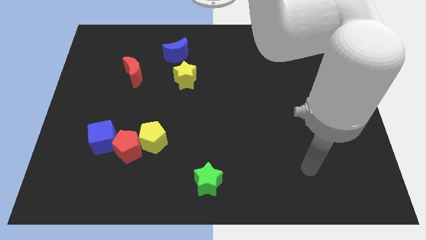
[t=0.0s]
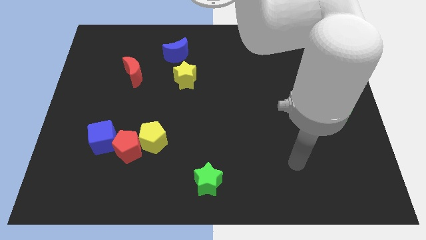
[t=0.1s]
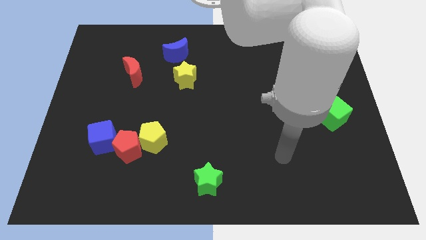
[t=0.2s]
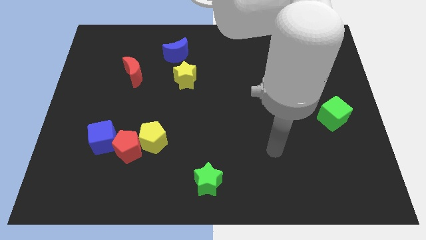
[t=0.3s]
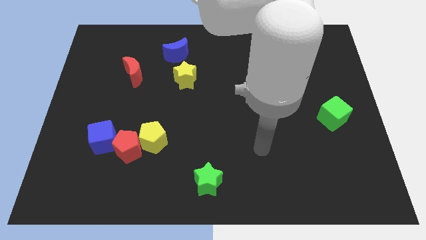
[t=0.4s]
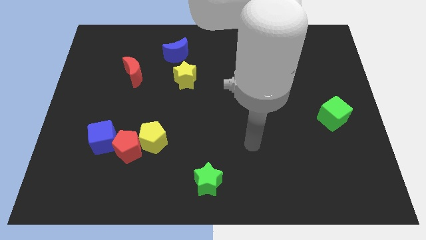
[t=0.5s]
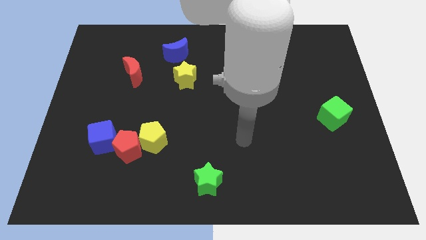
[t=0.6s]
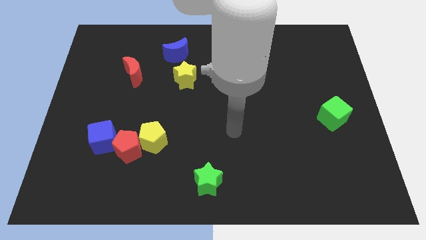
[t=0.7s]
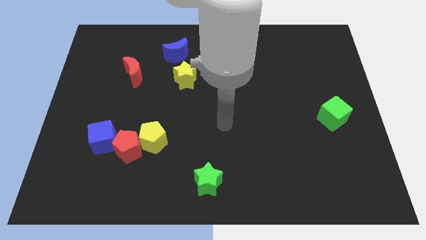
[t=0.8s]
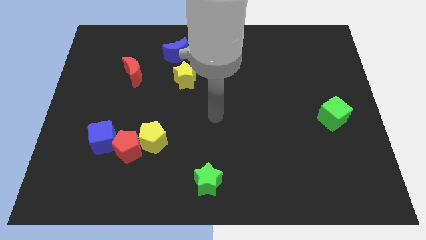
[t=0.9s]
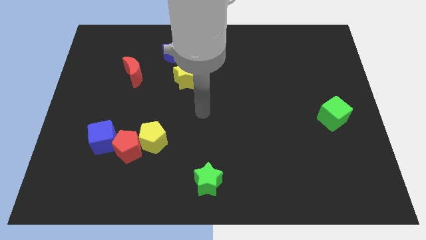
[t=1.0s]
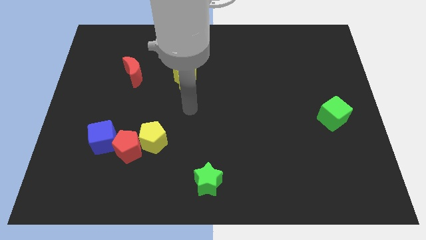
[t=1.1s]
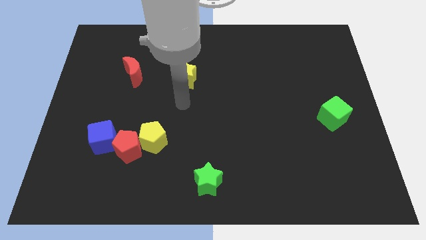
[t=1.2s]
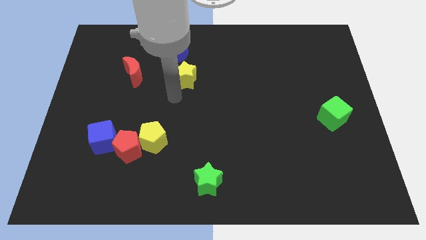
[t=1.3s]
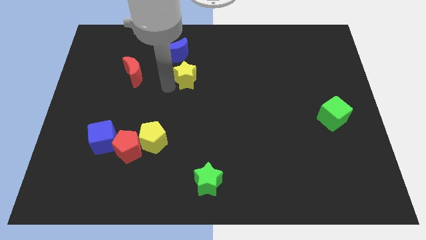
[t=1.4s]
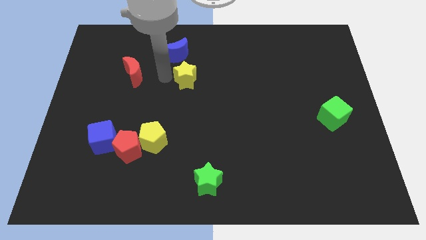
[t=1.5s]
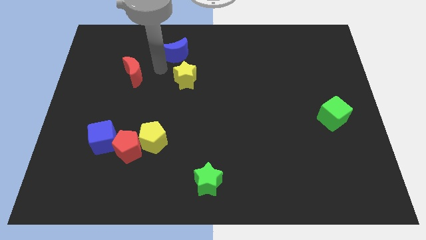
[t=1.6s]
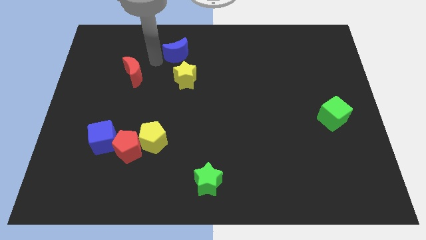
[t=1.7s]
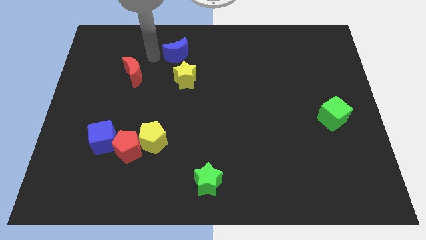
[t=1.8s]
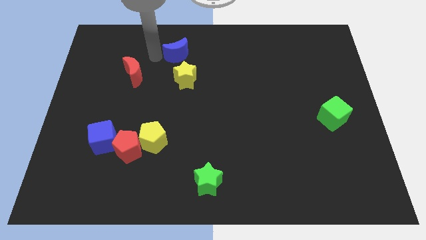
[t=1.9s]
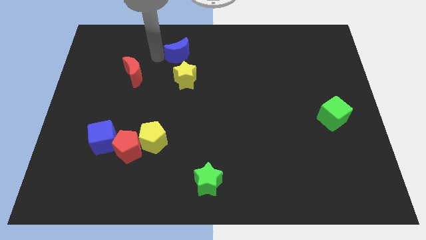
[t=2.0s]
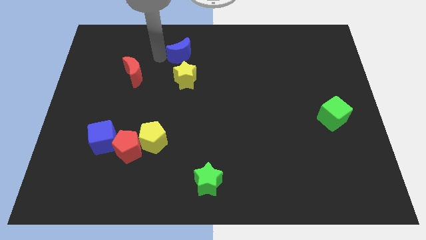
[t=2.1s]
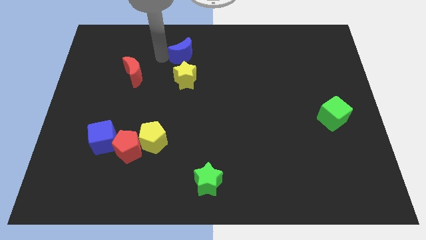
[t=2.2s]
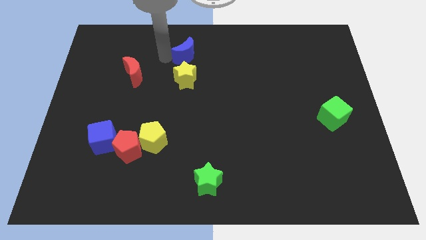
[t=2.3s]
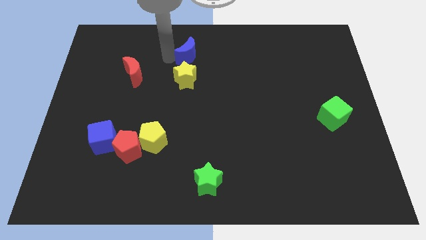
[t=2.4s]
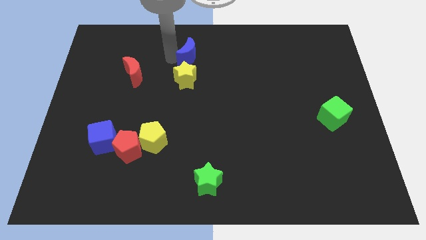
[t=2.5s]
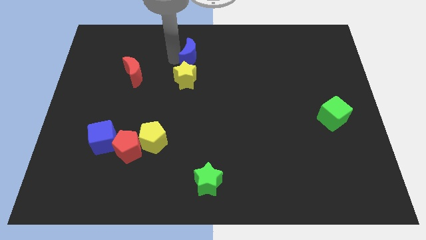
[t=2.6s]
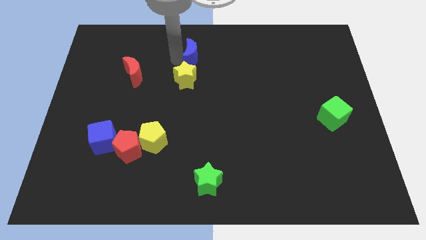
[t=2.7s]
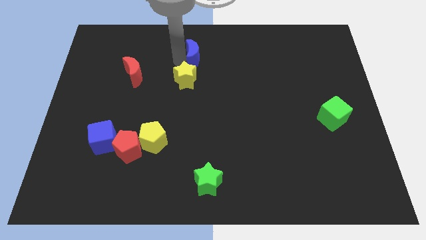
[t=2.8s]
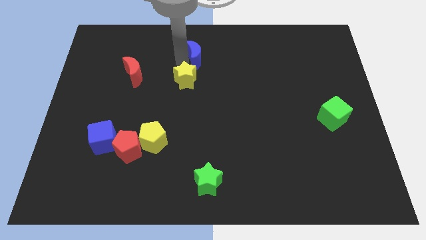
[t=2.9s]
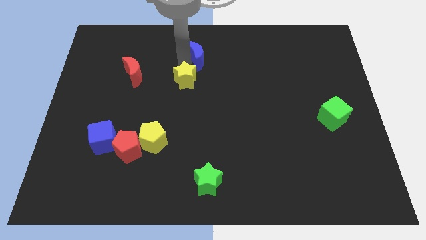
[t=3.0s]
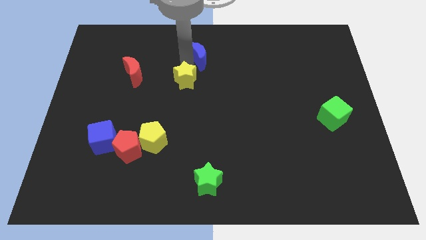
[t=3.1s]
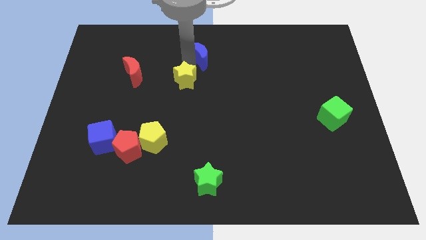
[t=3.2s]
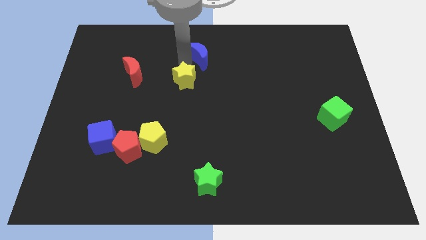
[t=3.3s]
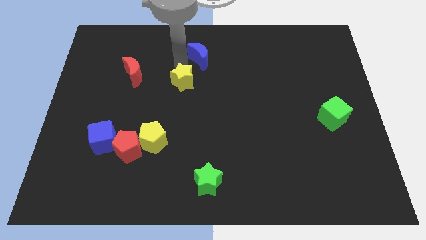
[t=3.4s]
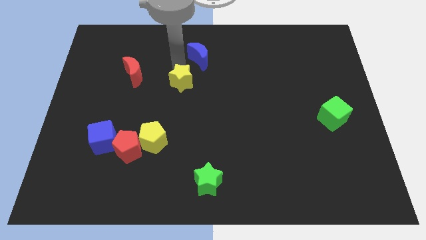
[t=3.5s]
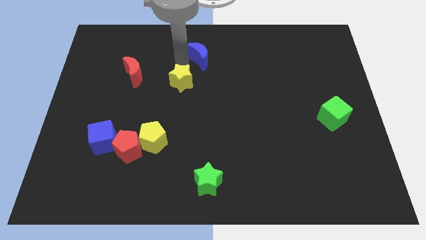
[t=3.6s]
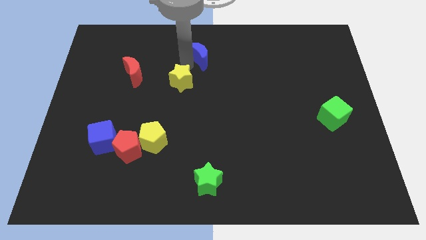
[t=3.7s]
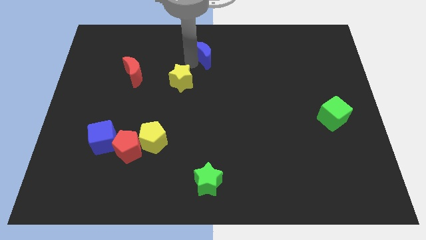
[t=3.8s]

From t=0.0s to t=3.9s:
push the blue moon right a little

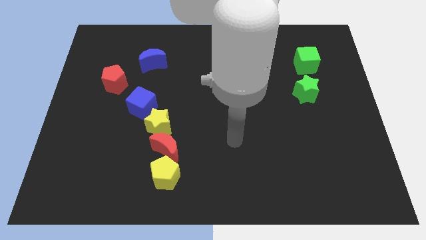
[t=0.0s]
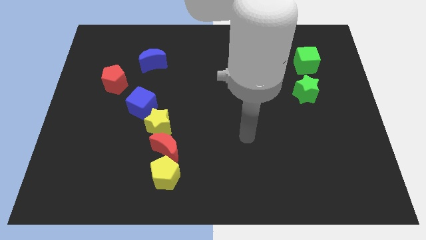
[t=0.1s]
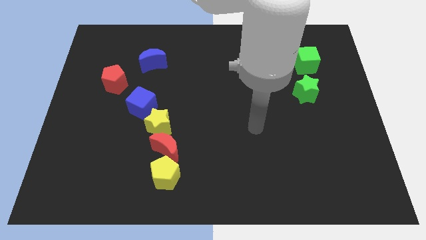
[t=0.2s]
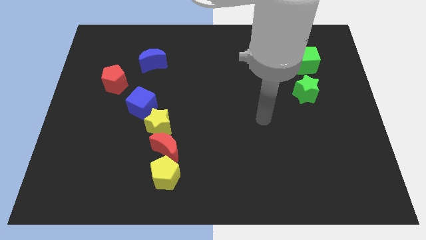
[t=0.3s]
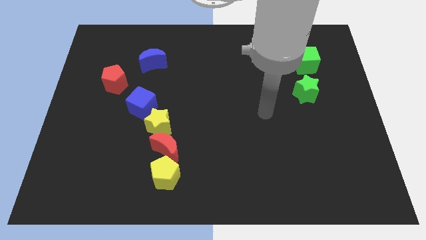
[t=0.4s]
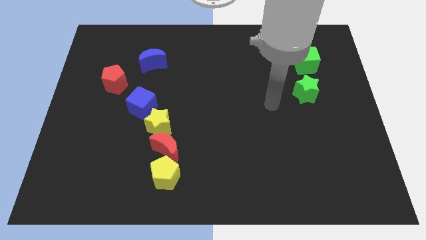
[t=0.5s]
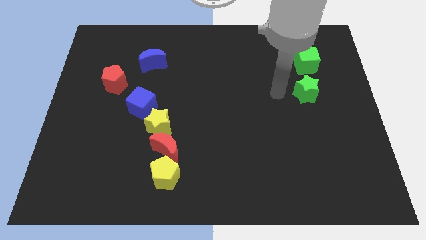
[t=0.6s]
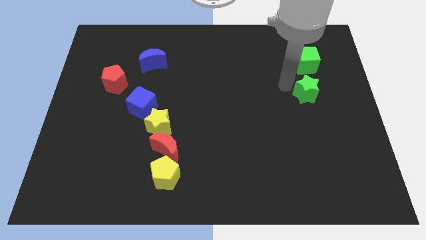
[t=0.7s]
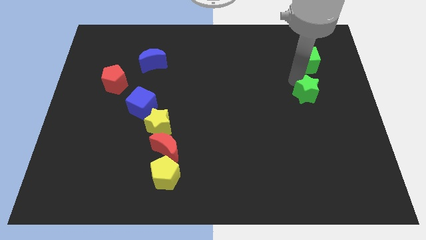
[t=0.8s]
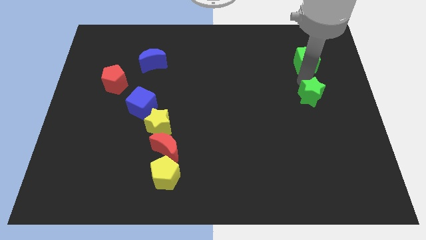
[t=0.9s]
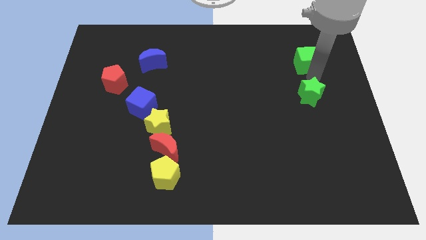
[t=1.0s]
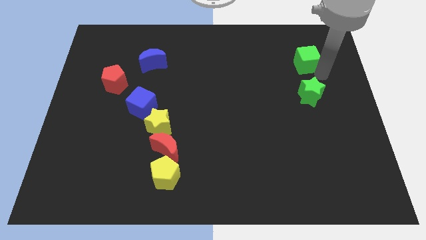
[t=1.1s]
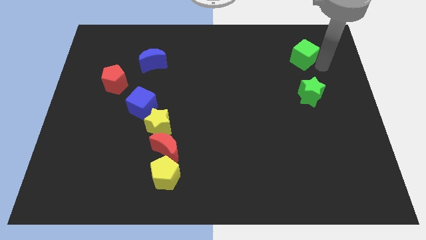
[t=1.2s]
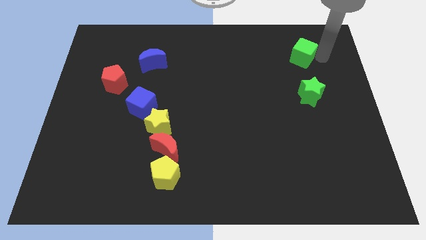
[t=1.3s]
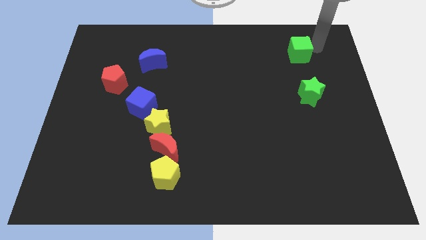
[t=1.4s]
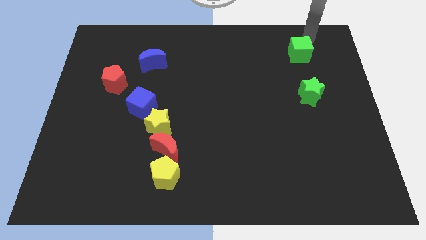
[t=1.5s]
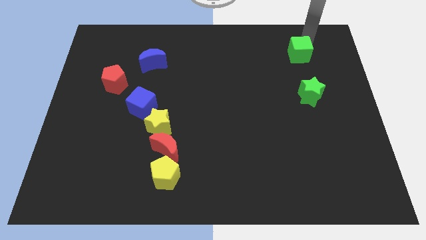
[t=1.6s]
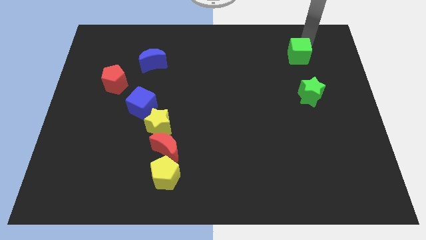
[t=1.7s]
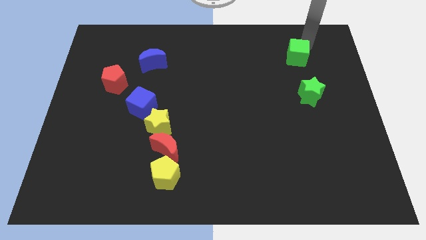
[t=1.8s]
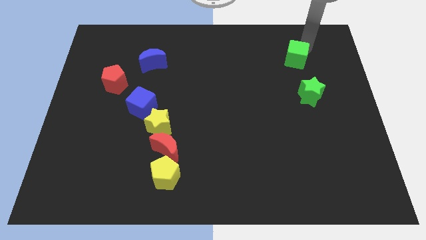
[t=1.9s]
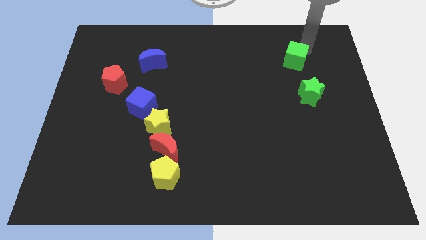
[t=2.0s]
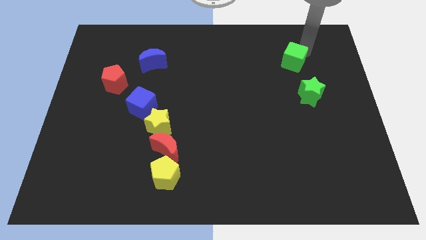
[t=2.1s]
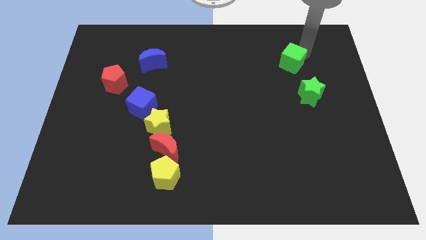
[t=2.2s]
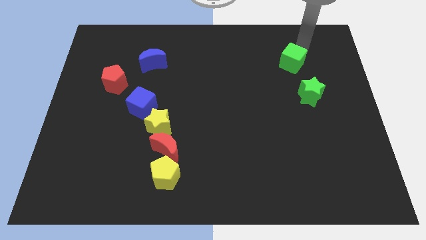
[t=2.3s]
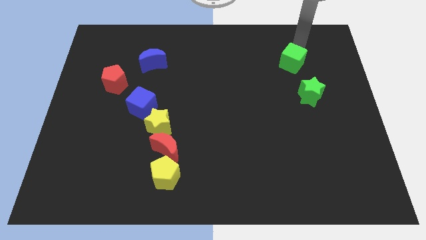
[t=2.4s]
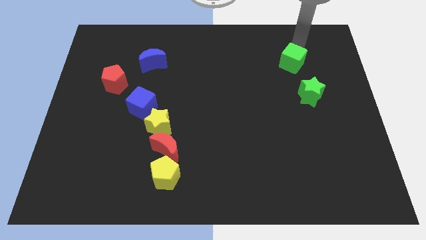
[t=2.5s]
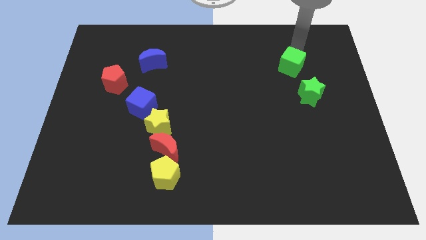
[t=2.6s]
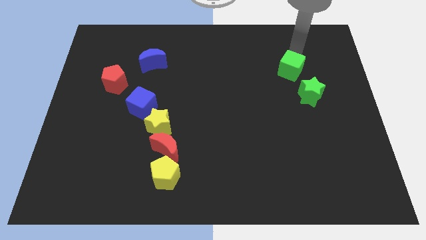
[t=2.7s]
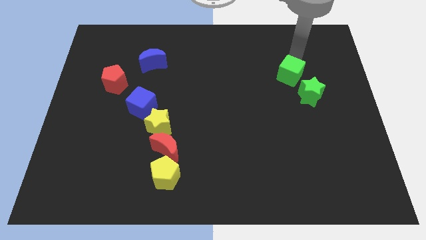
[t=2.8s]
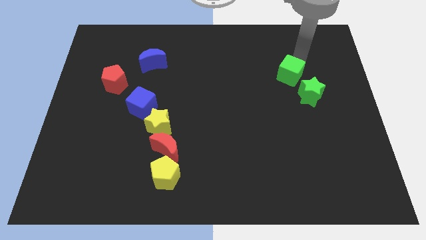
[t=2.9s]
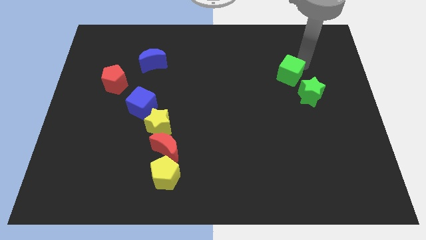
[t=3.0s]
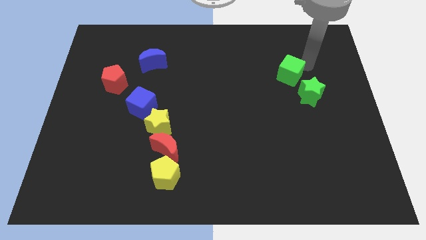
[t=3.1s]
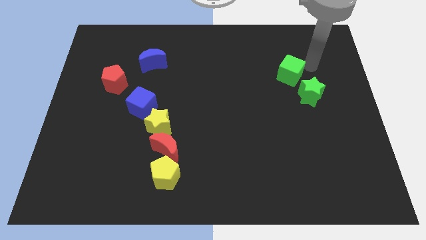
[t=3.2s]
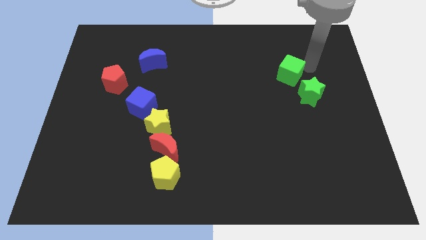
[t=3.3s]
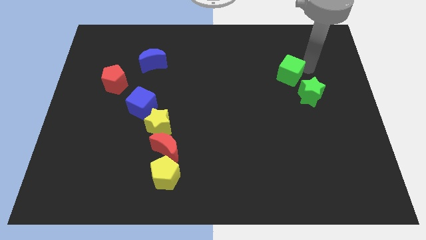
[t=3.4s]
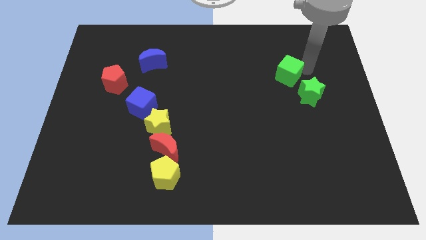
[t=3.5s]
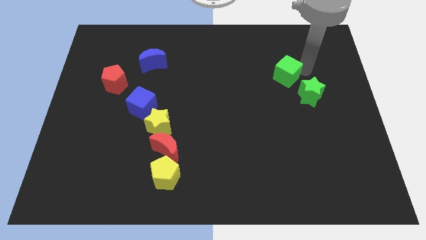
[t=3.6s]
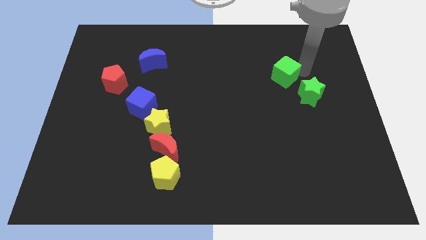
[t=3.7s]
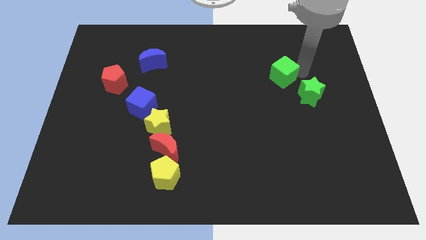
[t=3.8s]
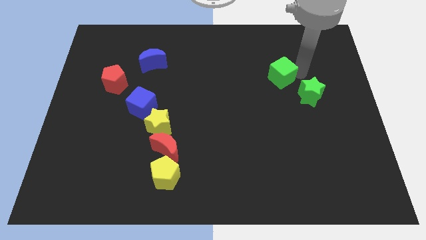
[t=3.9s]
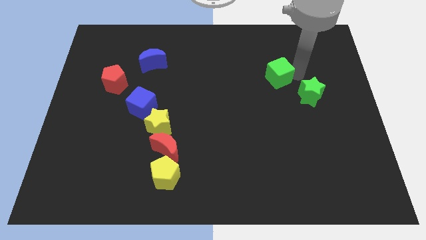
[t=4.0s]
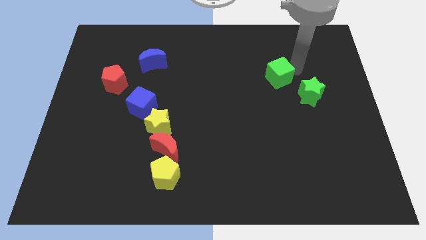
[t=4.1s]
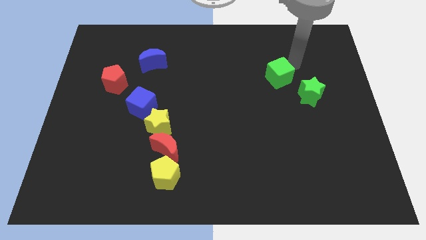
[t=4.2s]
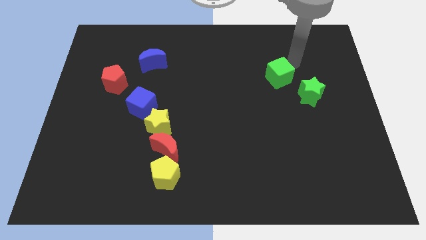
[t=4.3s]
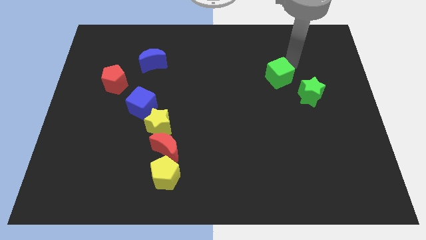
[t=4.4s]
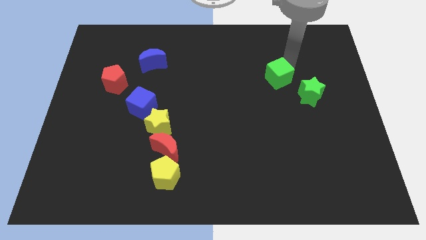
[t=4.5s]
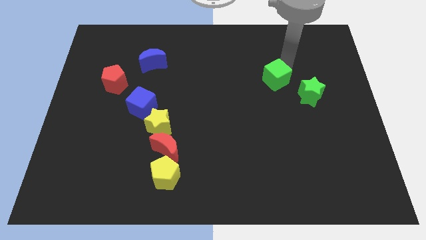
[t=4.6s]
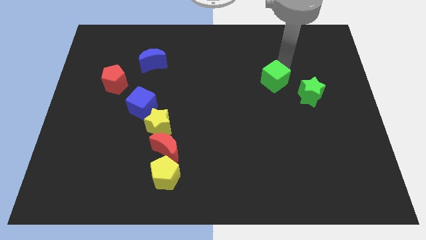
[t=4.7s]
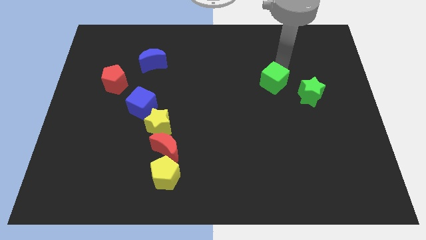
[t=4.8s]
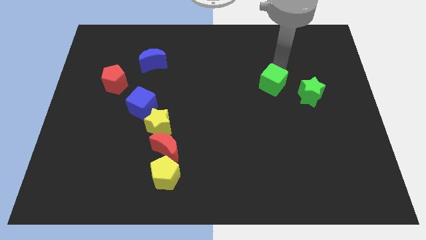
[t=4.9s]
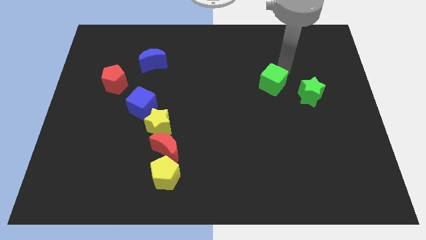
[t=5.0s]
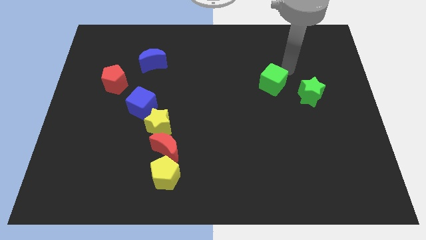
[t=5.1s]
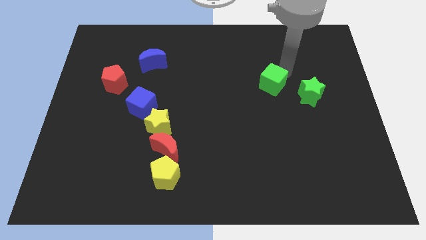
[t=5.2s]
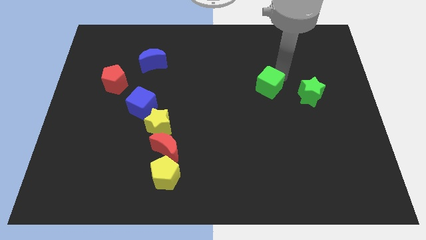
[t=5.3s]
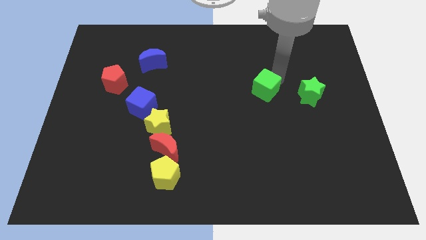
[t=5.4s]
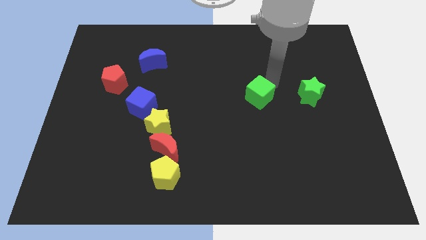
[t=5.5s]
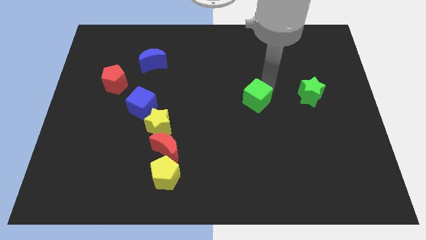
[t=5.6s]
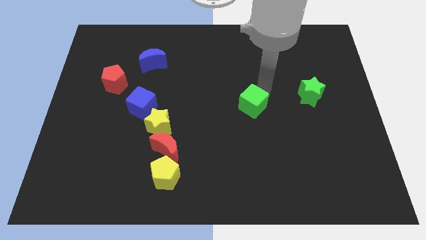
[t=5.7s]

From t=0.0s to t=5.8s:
move the green cube diagonally downwards and to the left
